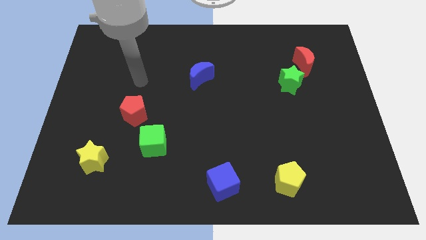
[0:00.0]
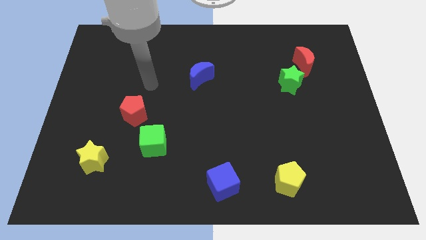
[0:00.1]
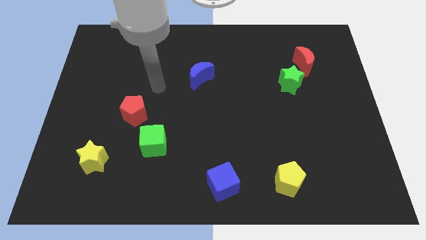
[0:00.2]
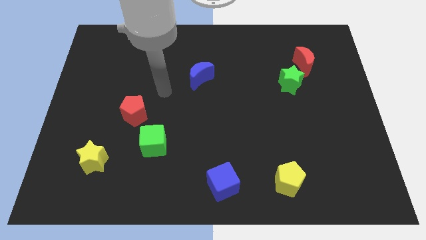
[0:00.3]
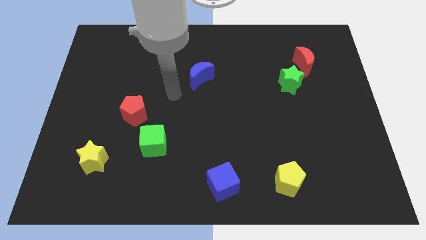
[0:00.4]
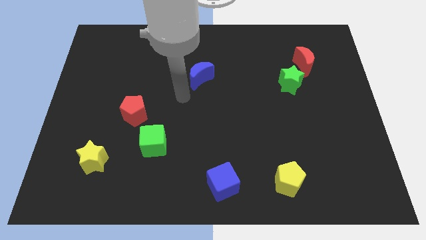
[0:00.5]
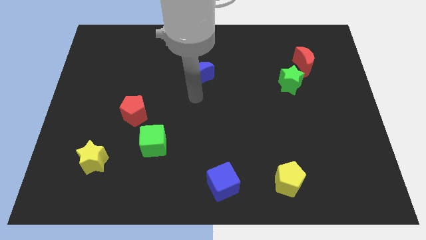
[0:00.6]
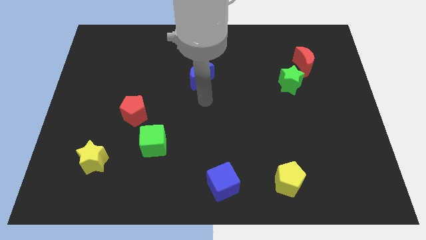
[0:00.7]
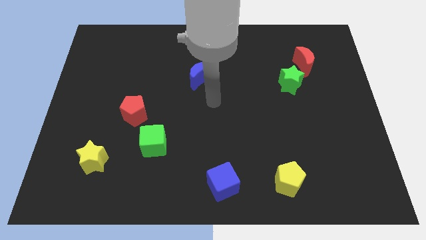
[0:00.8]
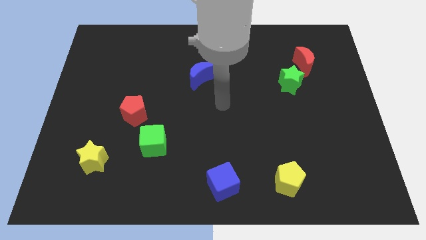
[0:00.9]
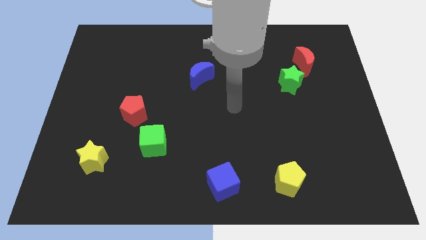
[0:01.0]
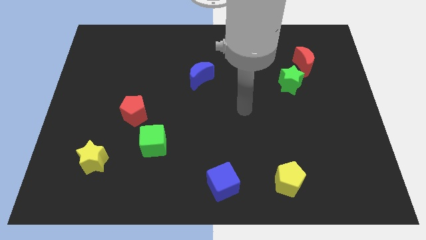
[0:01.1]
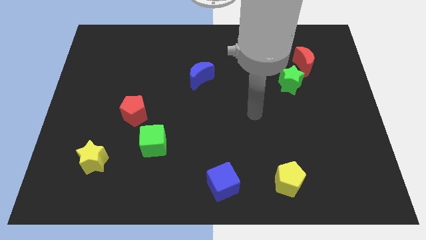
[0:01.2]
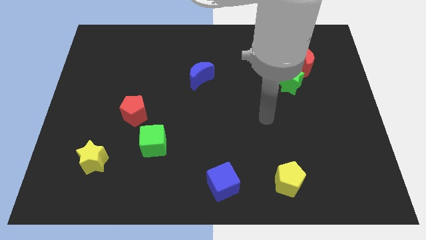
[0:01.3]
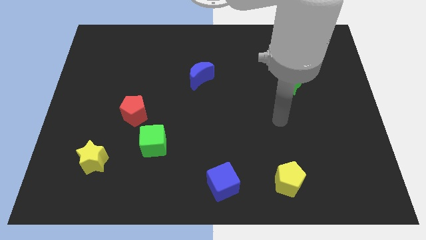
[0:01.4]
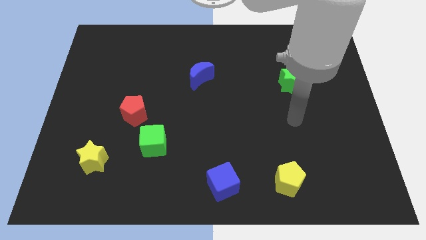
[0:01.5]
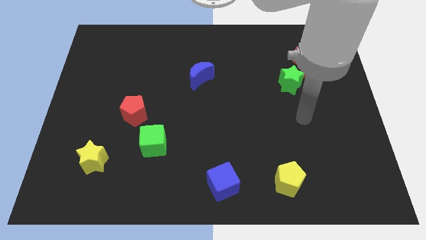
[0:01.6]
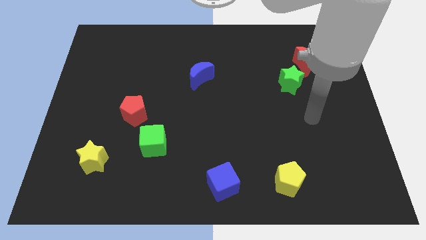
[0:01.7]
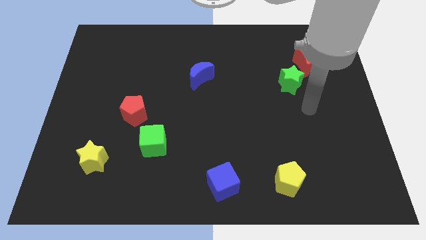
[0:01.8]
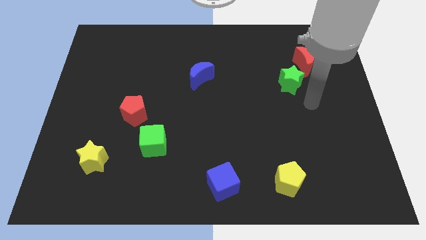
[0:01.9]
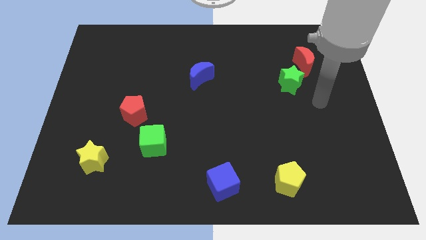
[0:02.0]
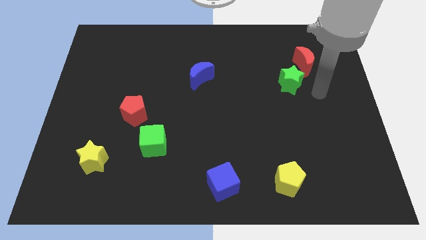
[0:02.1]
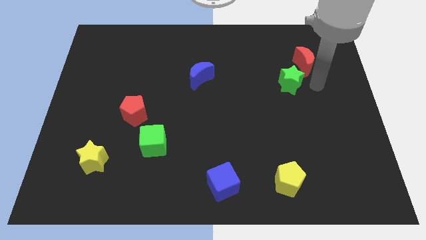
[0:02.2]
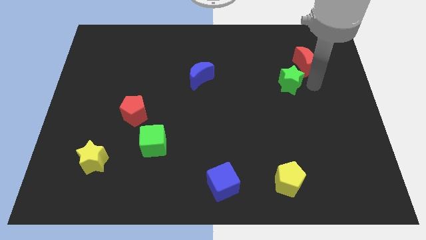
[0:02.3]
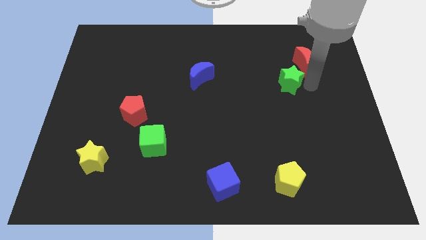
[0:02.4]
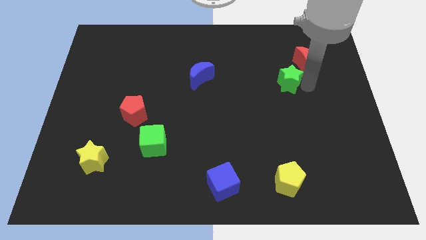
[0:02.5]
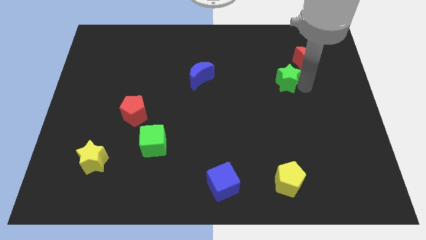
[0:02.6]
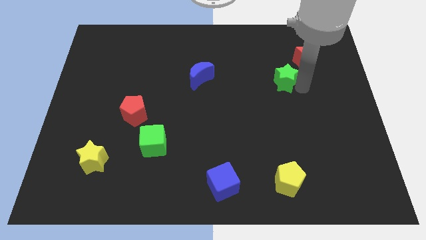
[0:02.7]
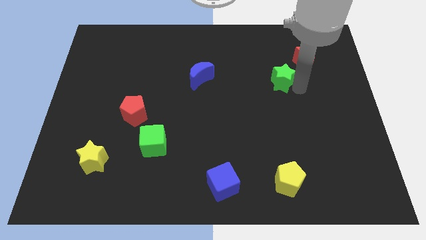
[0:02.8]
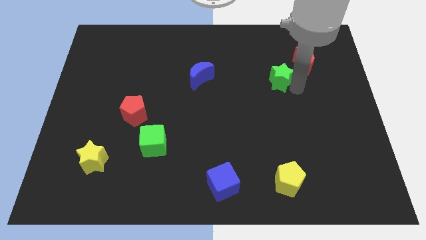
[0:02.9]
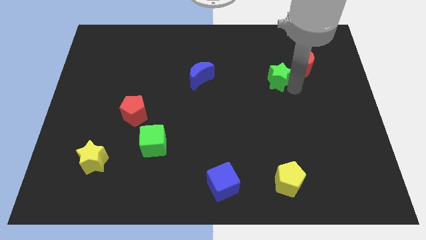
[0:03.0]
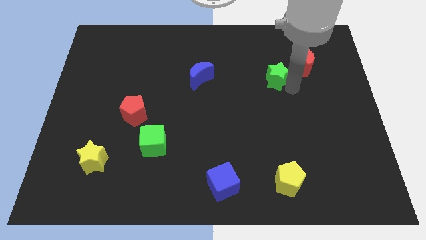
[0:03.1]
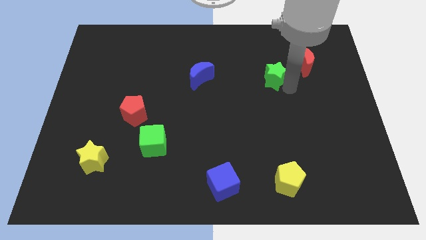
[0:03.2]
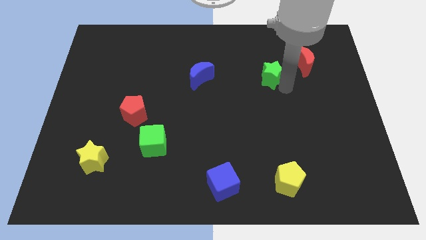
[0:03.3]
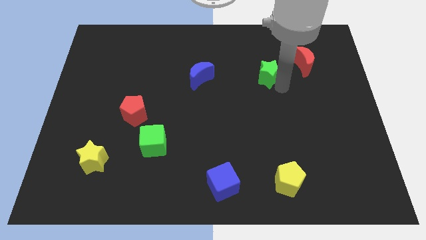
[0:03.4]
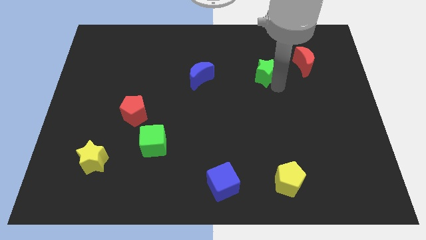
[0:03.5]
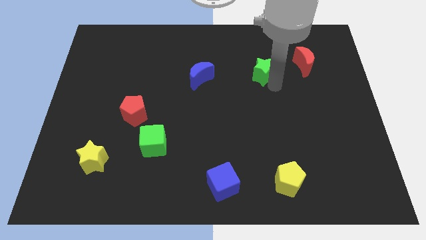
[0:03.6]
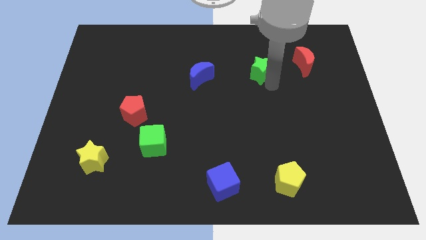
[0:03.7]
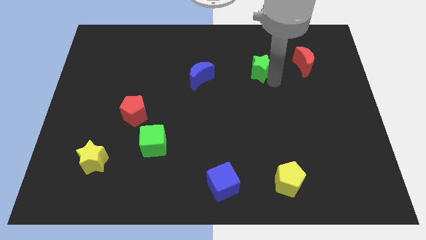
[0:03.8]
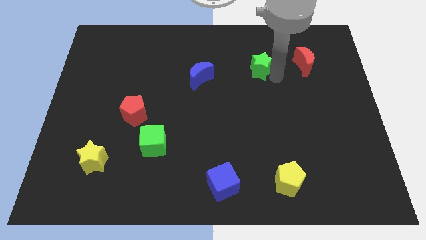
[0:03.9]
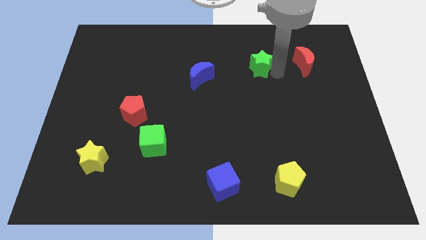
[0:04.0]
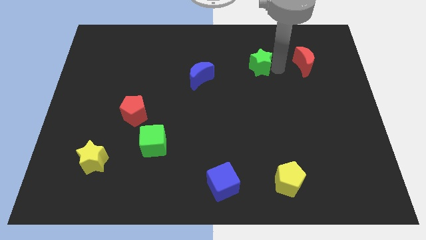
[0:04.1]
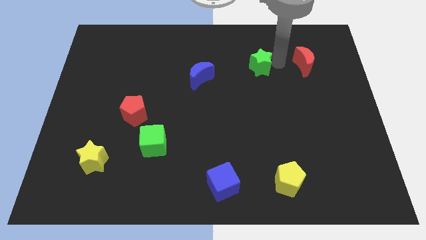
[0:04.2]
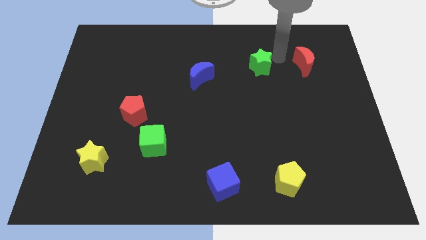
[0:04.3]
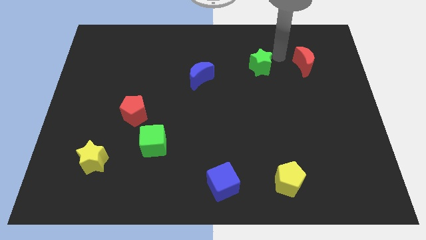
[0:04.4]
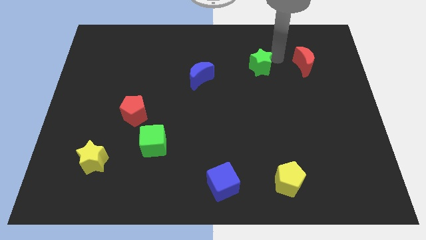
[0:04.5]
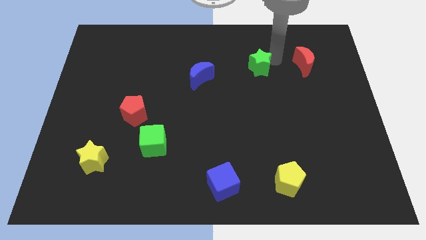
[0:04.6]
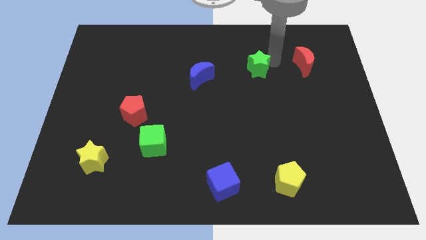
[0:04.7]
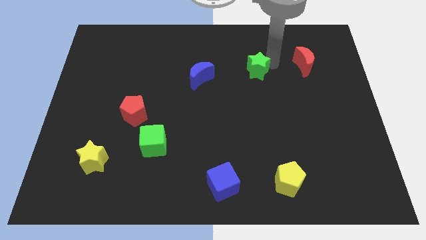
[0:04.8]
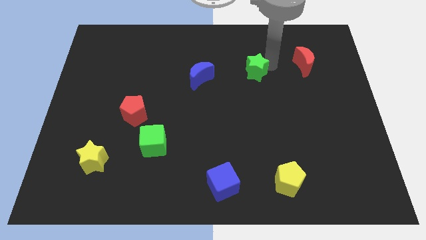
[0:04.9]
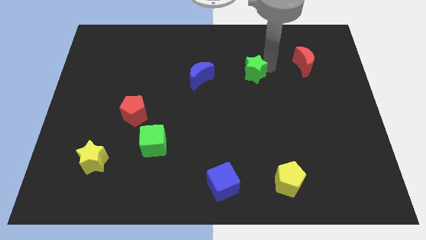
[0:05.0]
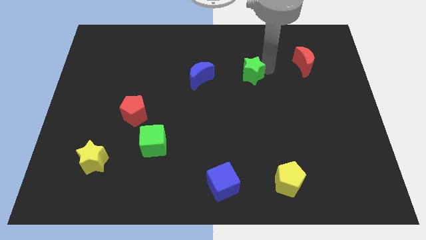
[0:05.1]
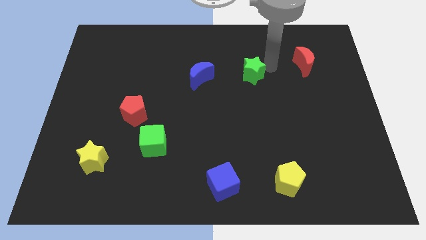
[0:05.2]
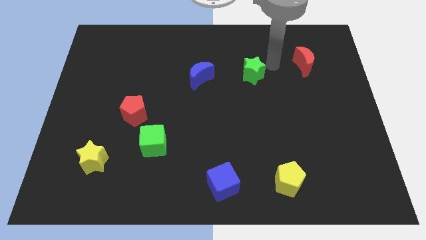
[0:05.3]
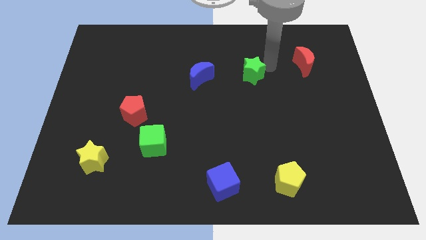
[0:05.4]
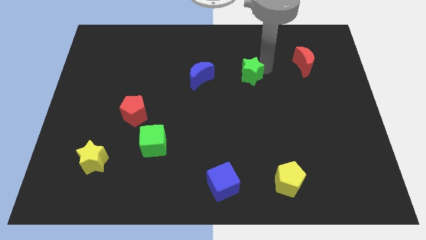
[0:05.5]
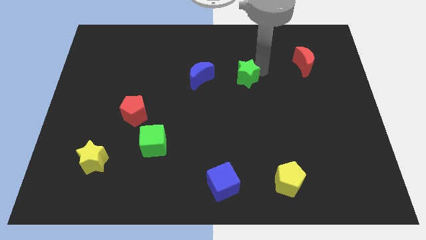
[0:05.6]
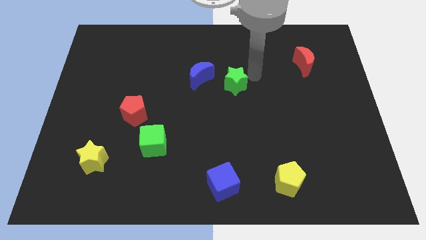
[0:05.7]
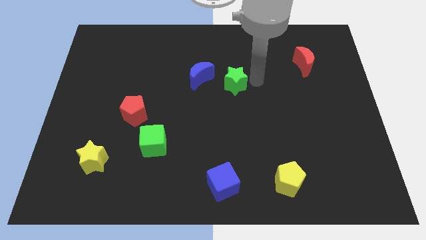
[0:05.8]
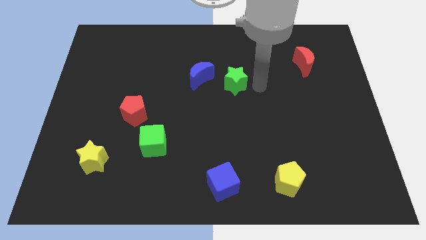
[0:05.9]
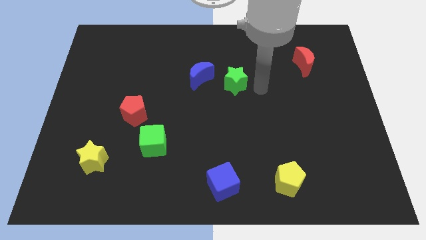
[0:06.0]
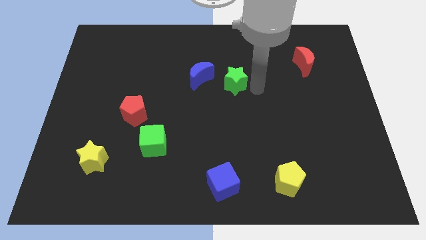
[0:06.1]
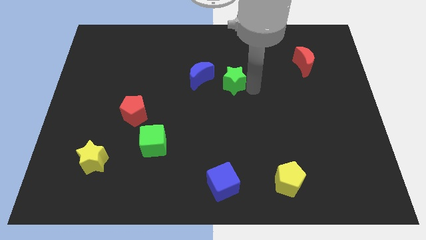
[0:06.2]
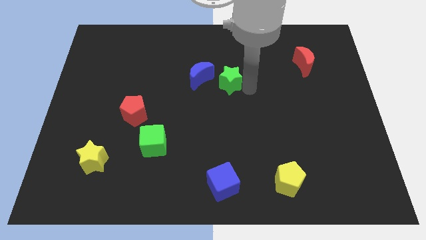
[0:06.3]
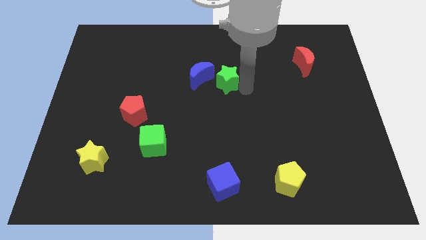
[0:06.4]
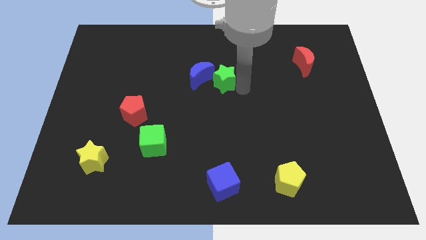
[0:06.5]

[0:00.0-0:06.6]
slide the green star to the blue moon
